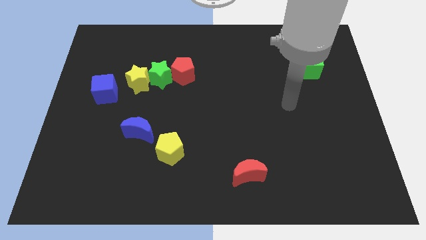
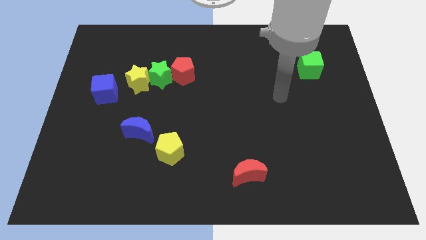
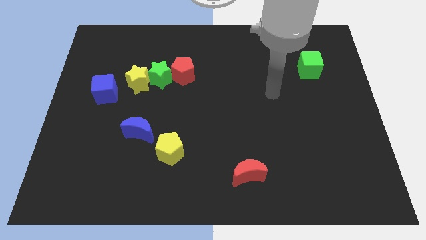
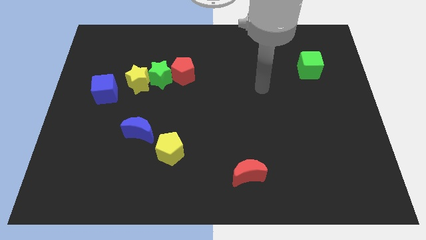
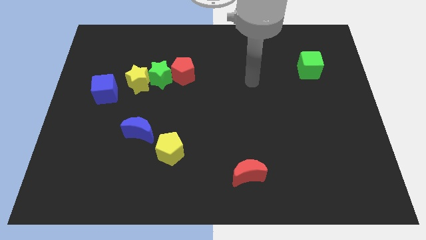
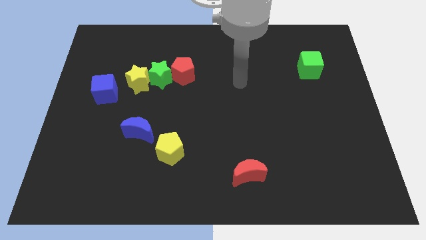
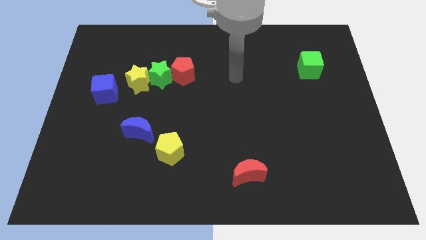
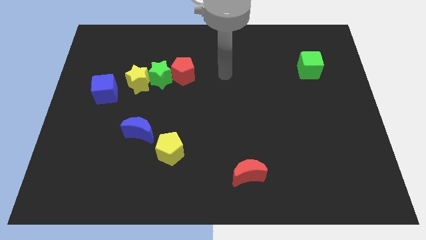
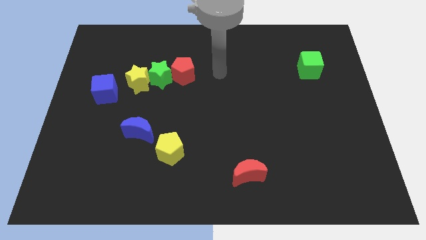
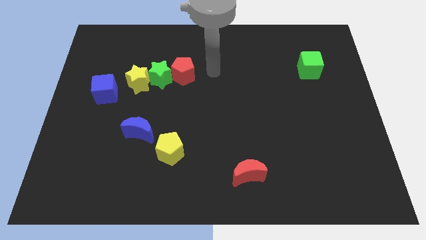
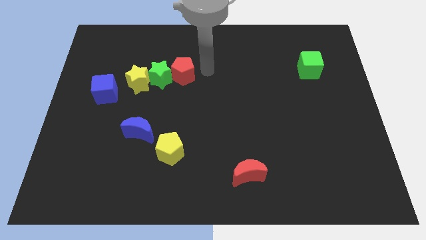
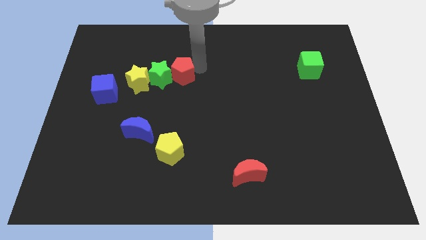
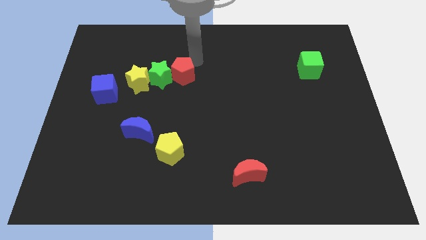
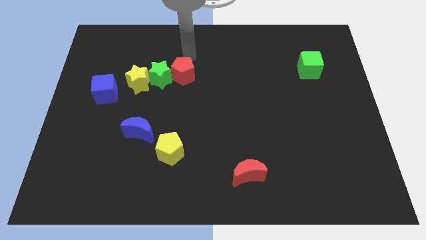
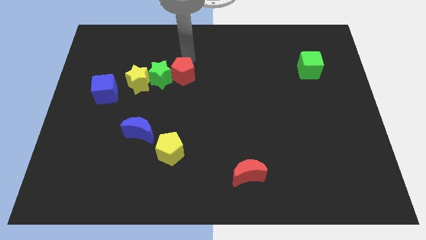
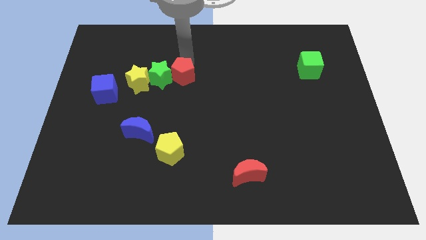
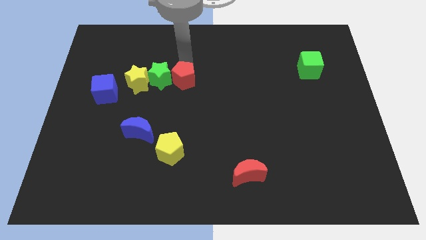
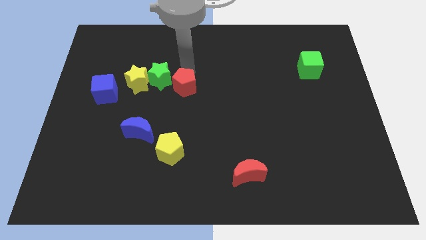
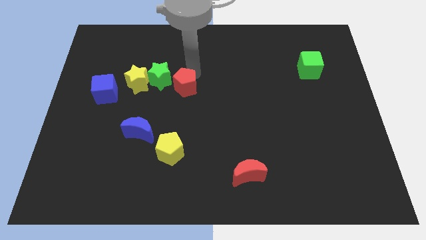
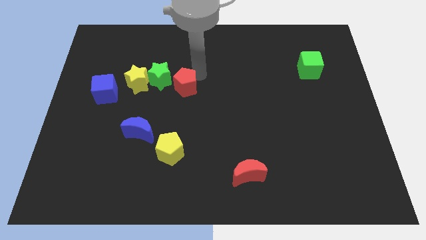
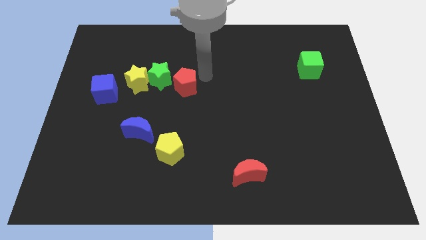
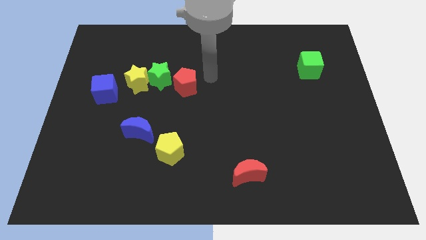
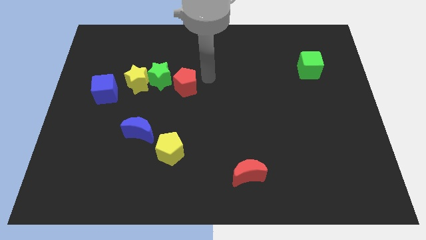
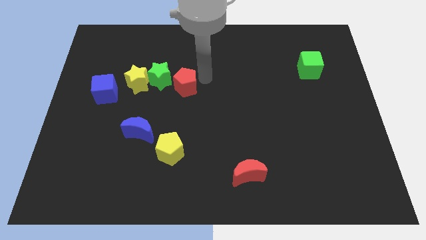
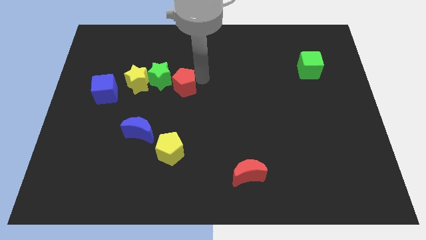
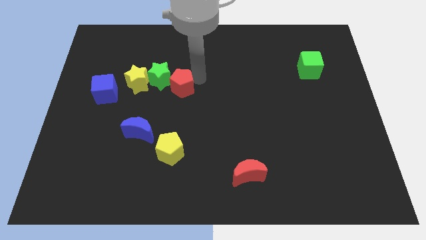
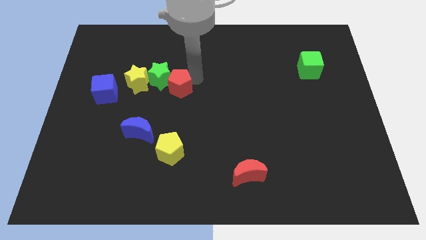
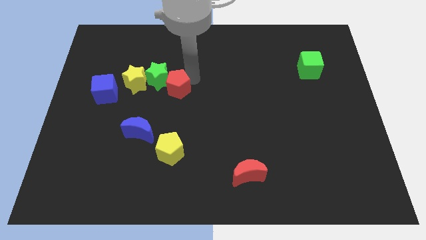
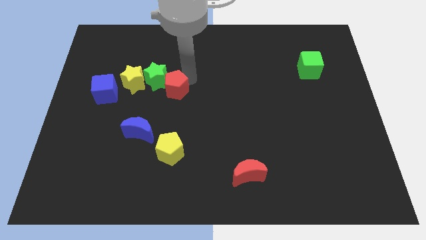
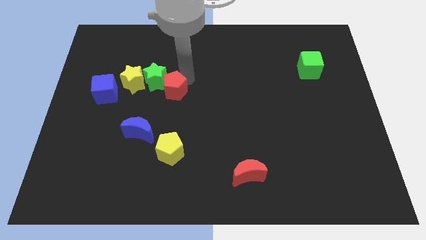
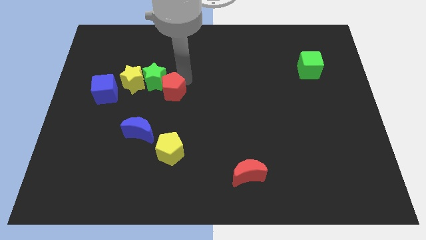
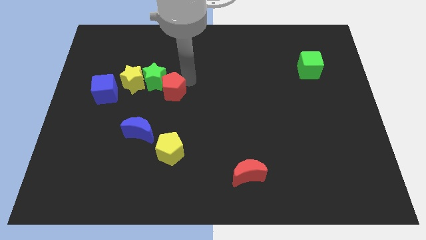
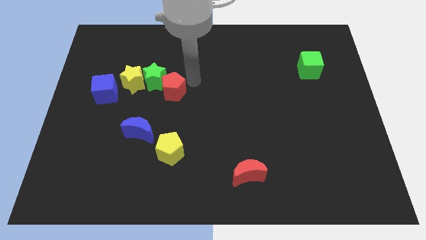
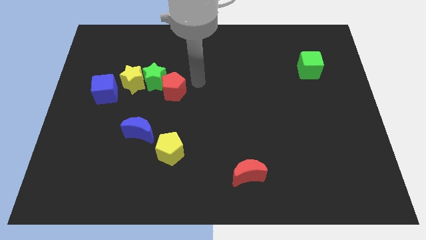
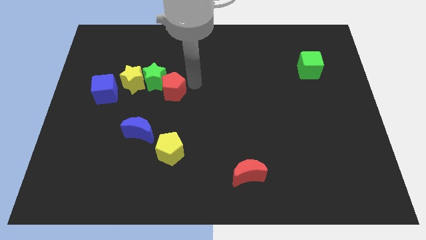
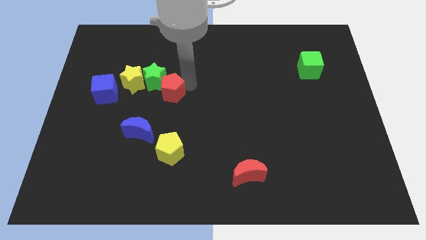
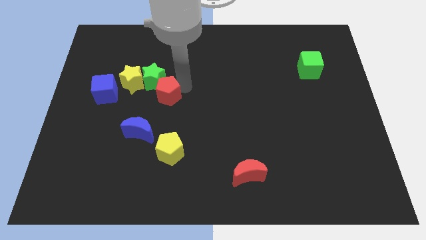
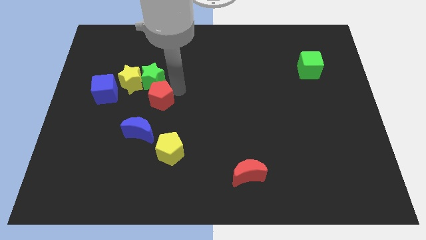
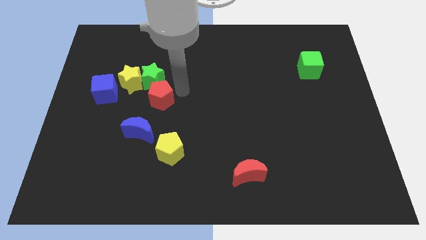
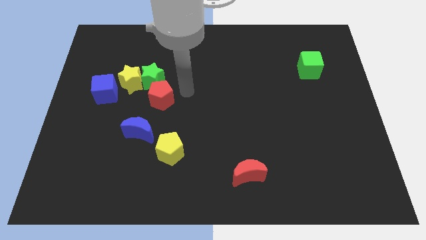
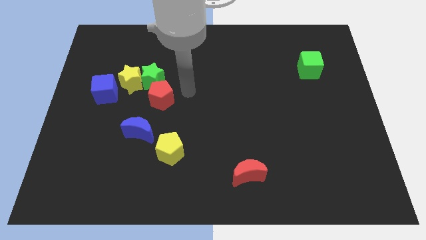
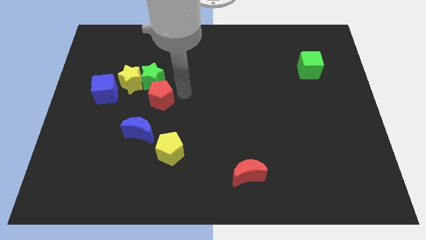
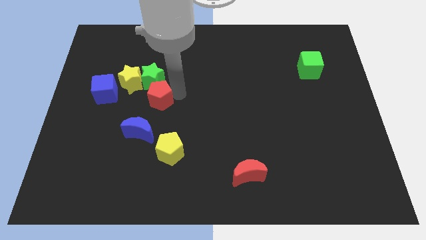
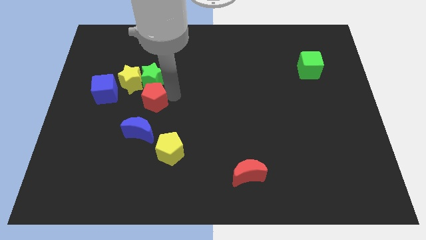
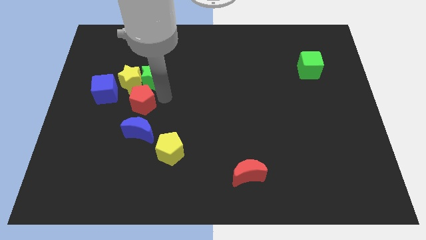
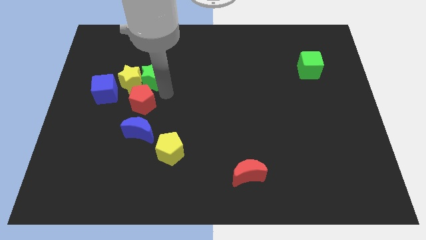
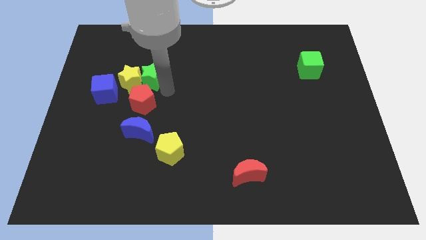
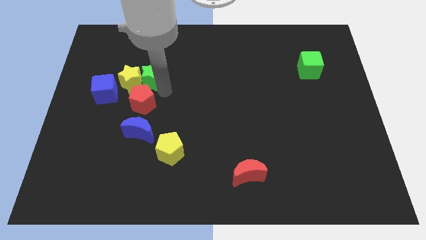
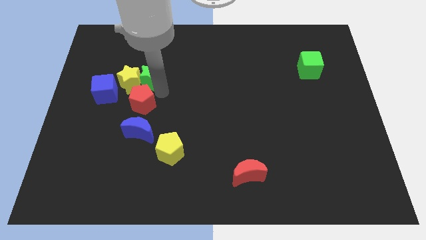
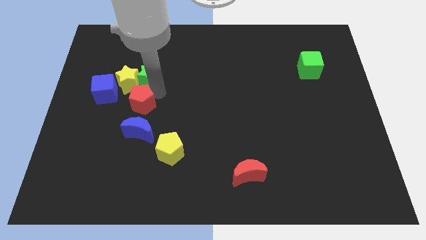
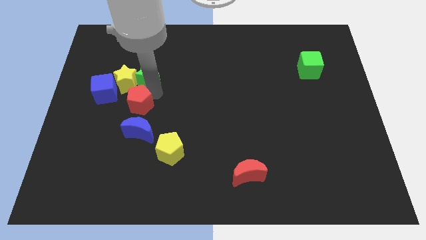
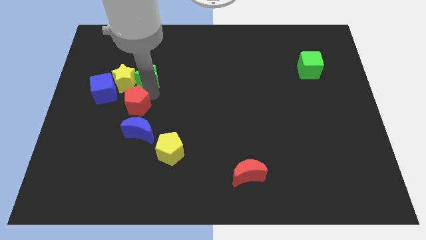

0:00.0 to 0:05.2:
put the red pentagon to the top left side of the blue moon

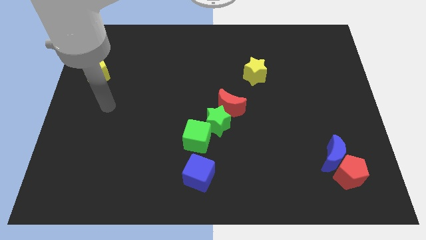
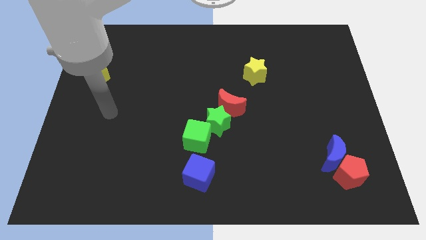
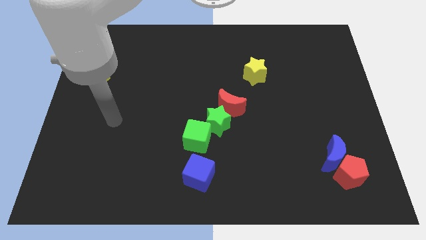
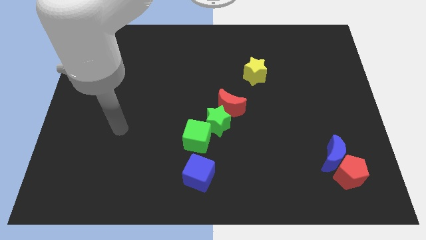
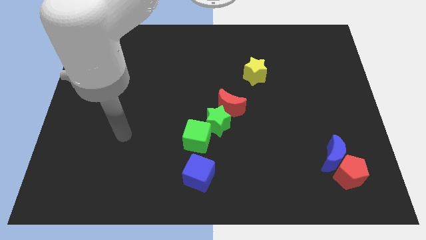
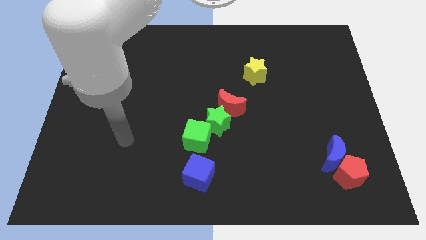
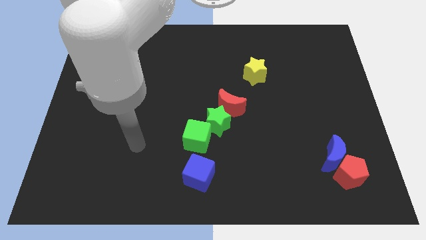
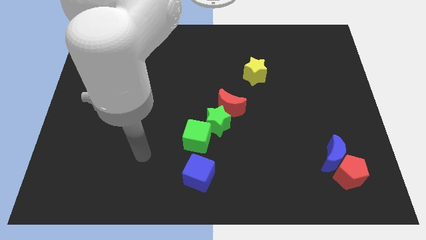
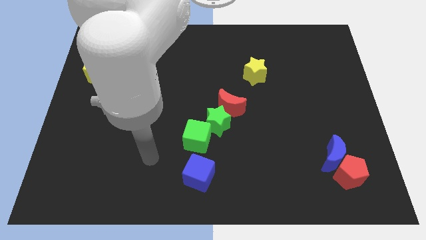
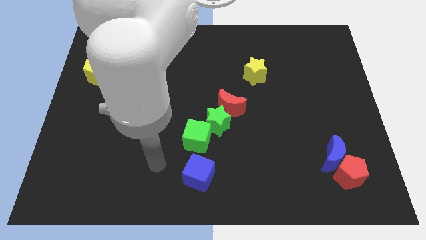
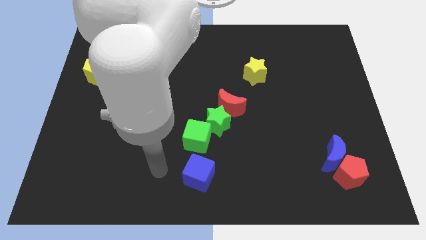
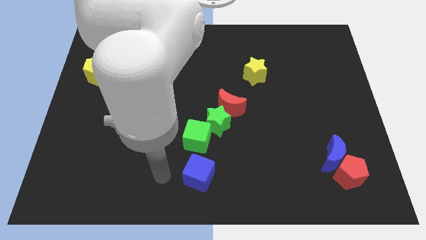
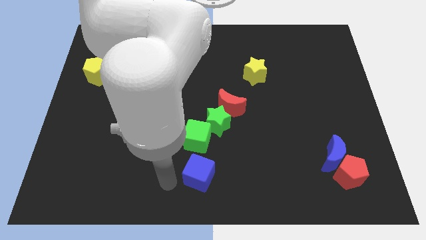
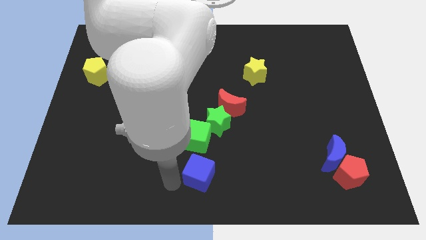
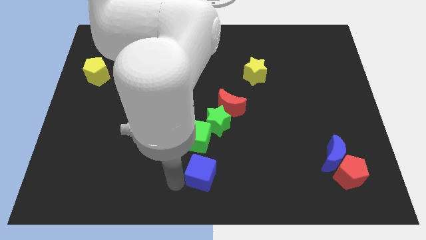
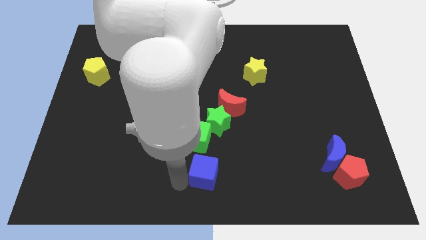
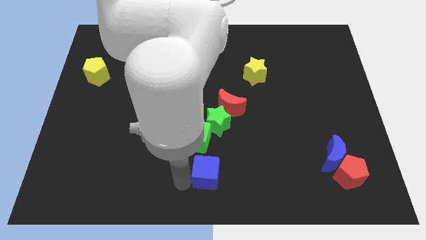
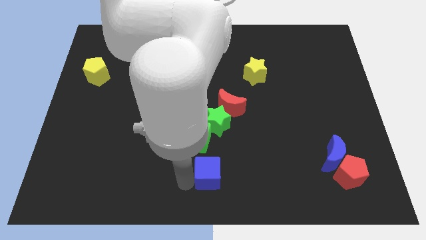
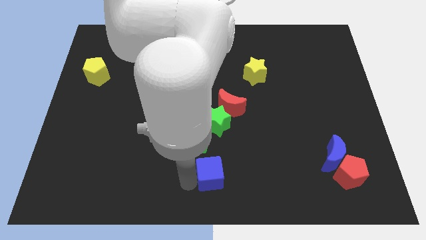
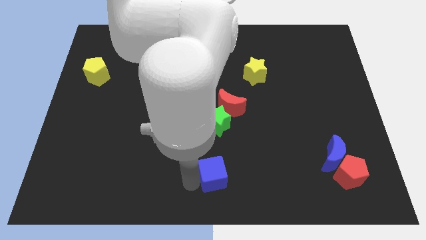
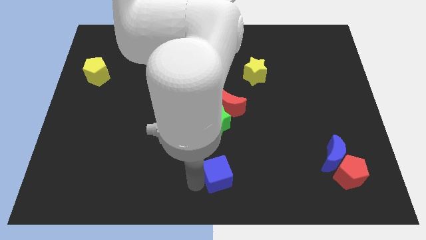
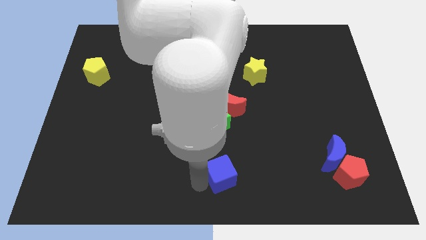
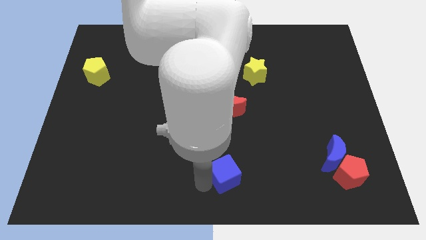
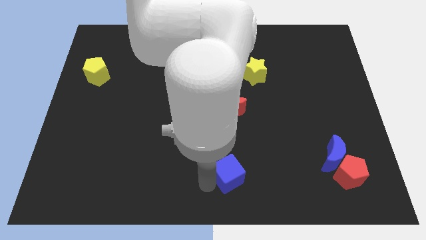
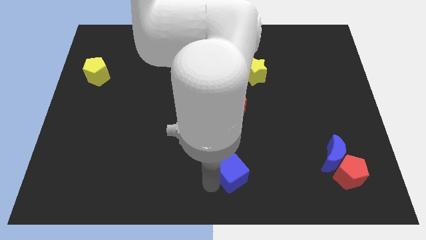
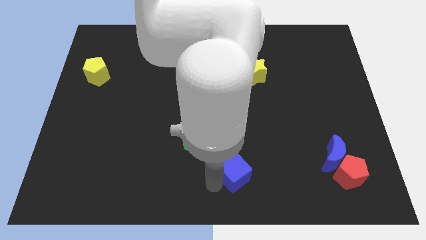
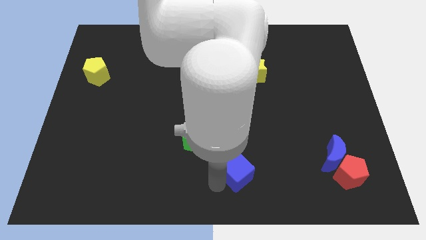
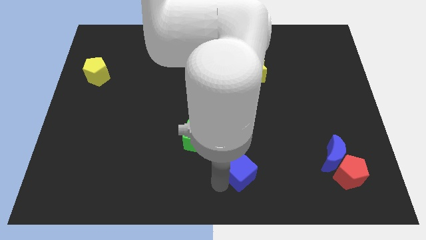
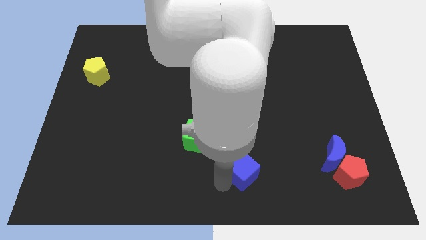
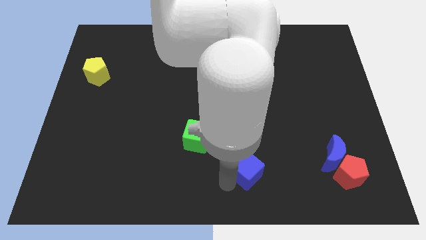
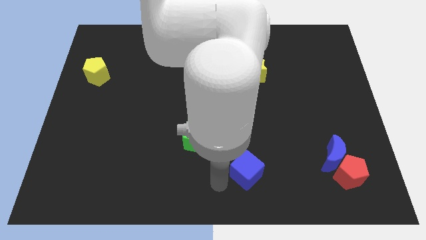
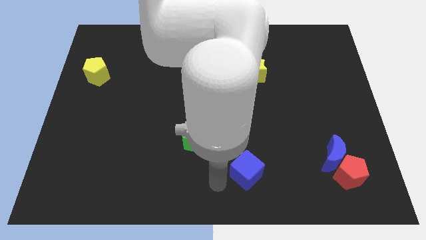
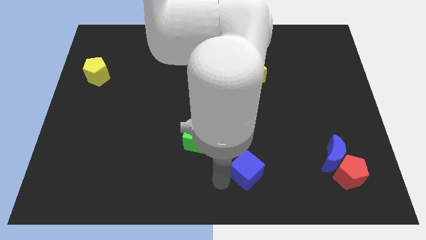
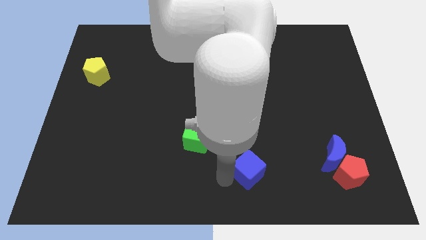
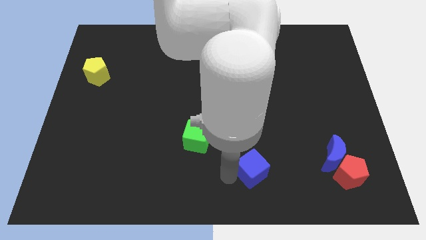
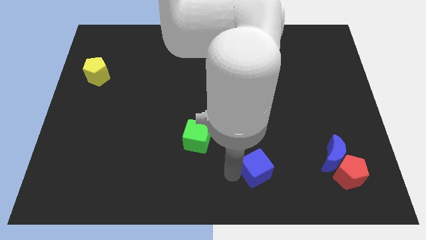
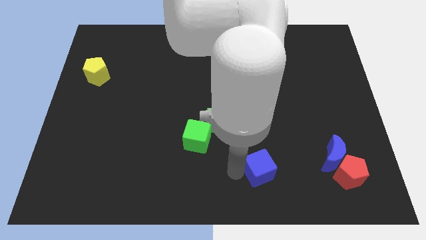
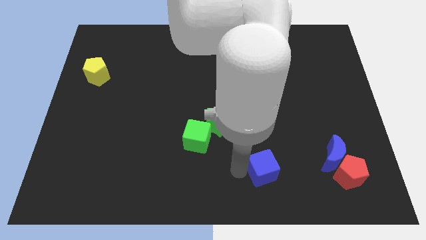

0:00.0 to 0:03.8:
move the blue cube to the left of the blue moon
